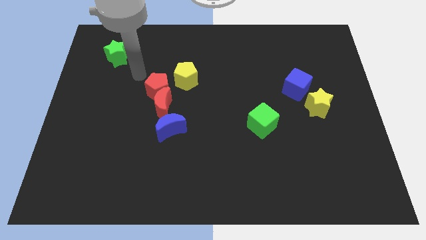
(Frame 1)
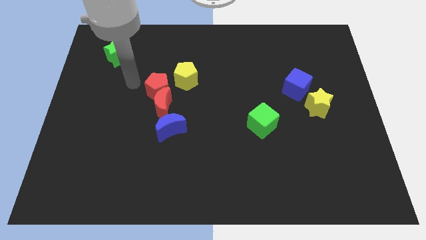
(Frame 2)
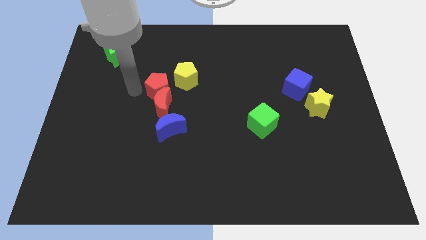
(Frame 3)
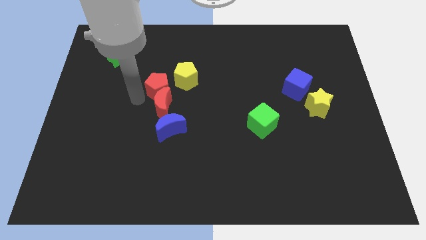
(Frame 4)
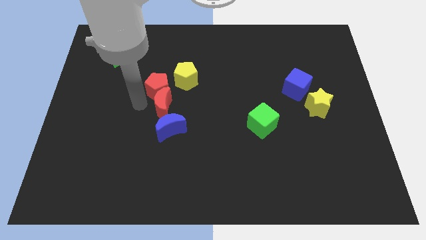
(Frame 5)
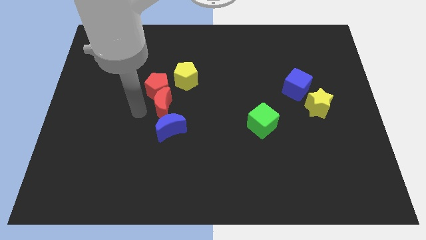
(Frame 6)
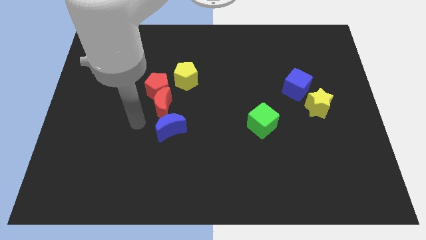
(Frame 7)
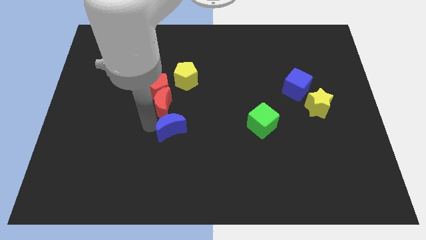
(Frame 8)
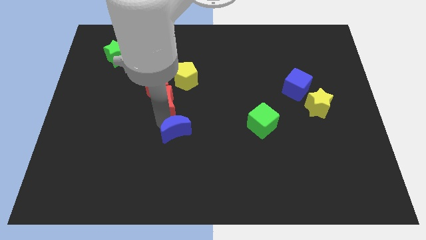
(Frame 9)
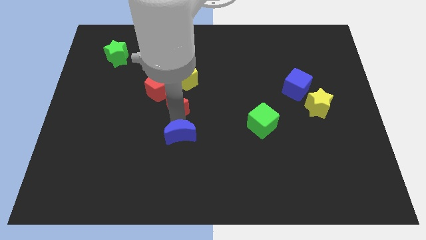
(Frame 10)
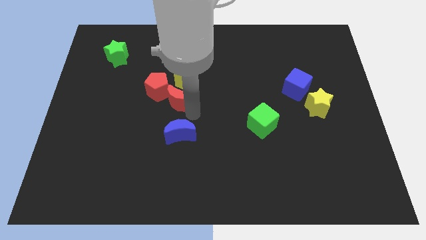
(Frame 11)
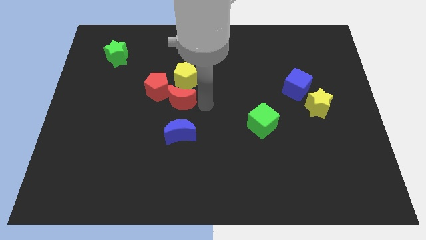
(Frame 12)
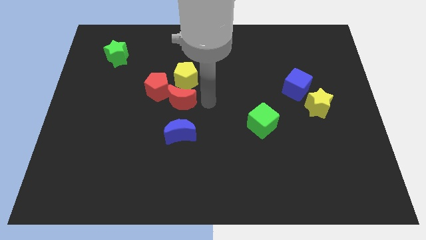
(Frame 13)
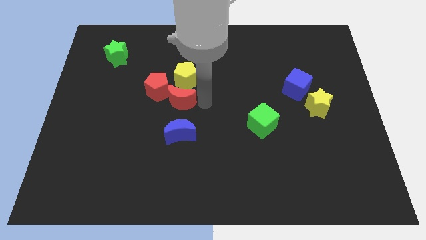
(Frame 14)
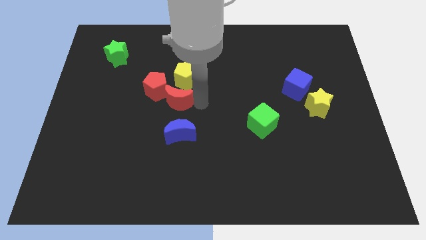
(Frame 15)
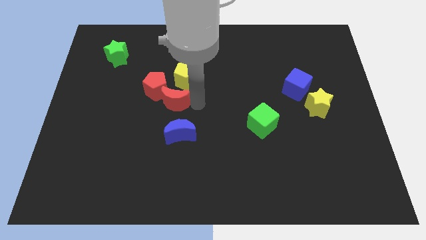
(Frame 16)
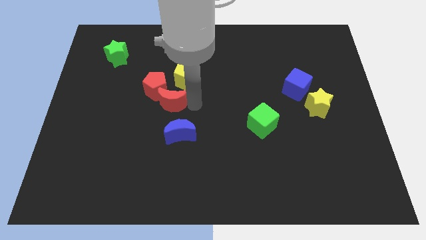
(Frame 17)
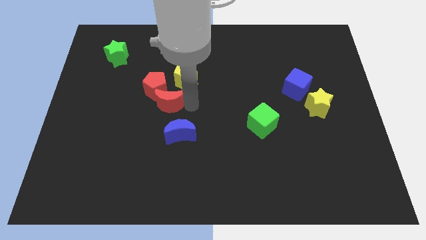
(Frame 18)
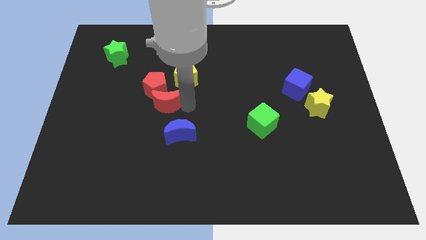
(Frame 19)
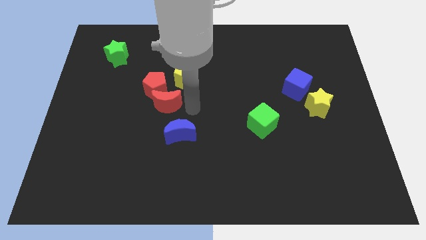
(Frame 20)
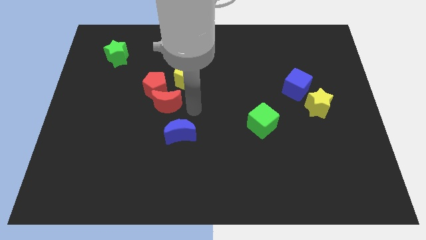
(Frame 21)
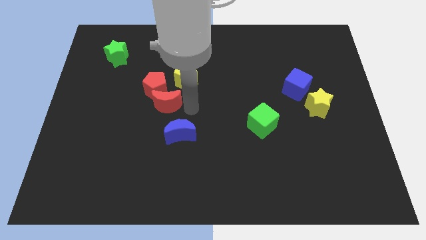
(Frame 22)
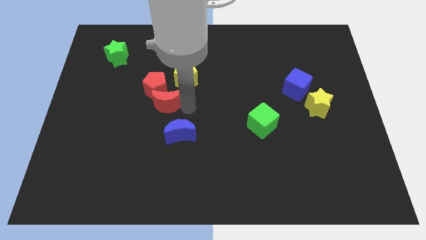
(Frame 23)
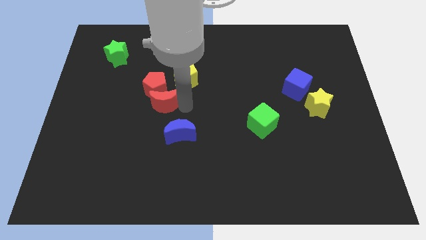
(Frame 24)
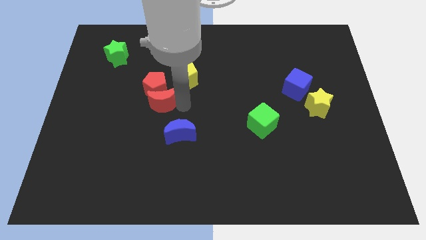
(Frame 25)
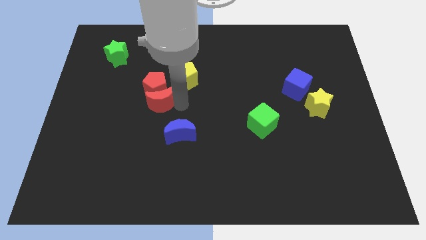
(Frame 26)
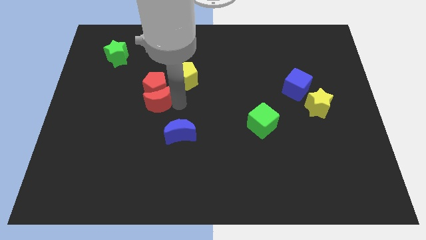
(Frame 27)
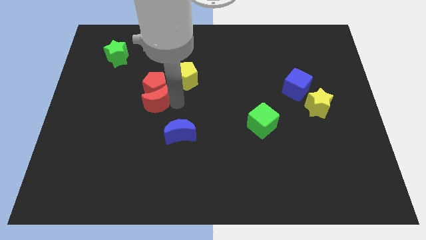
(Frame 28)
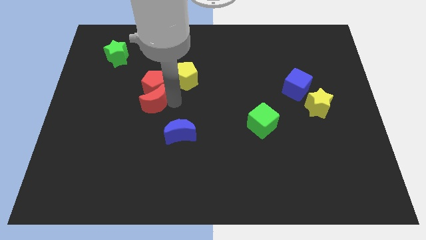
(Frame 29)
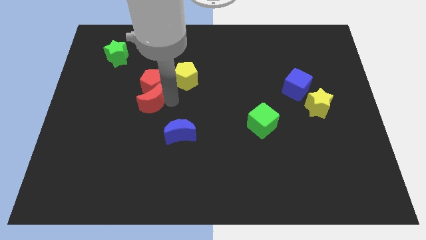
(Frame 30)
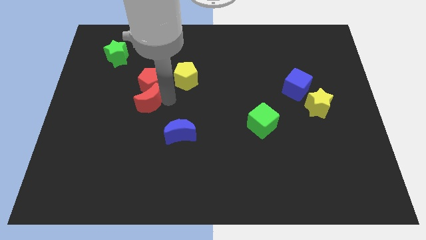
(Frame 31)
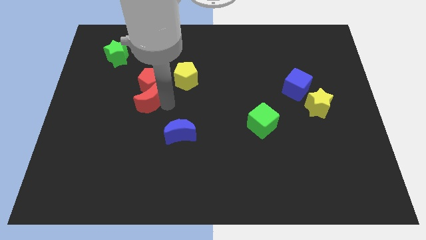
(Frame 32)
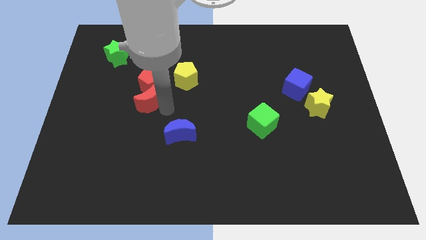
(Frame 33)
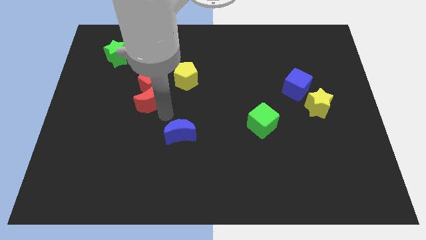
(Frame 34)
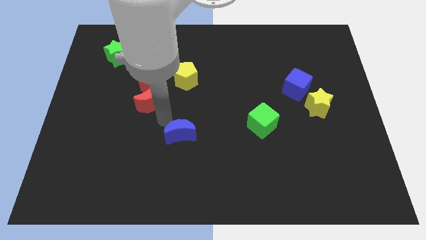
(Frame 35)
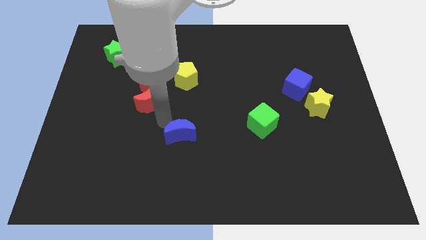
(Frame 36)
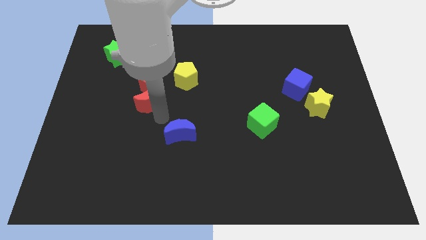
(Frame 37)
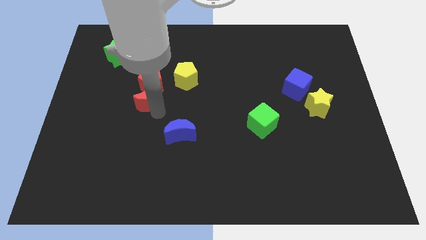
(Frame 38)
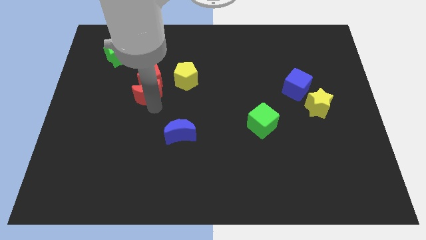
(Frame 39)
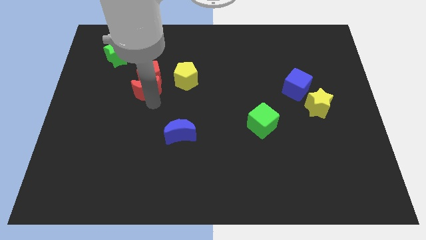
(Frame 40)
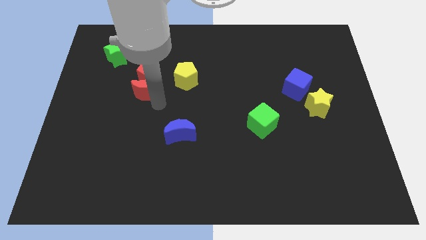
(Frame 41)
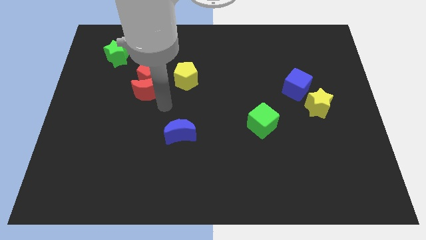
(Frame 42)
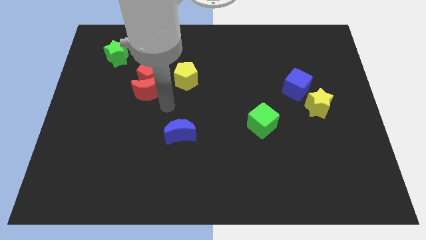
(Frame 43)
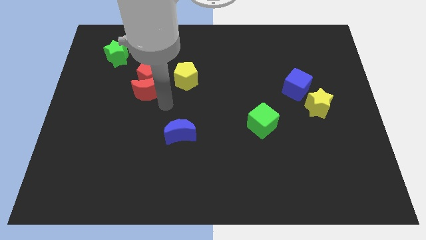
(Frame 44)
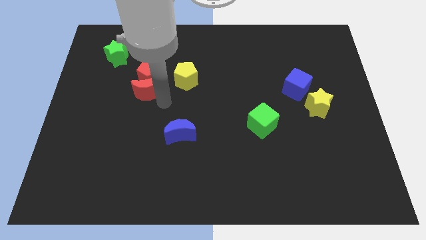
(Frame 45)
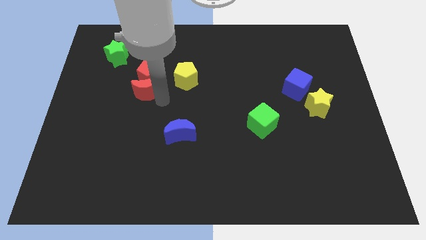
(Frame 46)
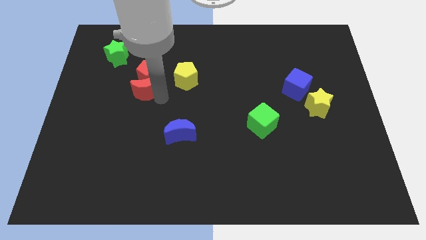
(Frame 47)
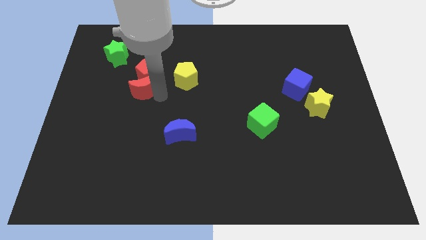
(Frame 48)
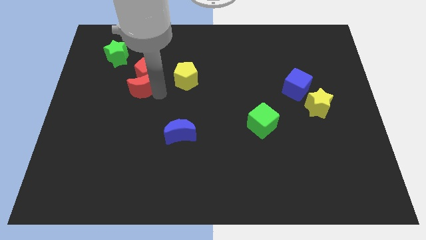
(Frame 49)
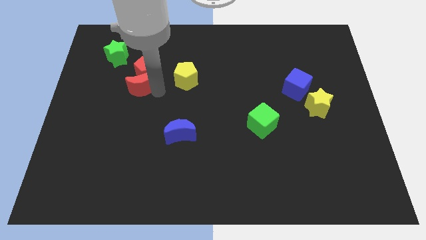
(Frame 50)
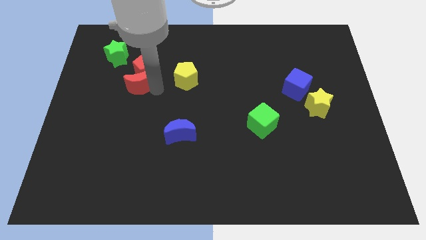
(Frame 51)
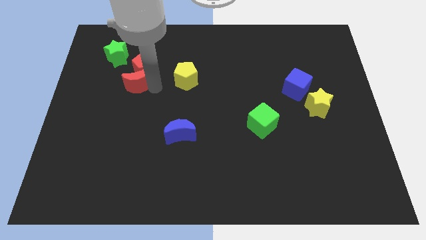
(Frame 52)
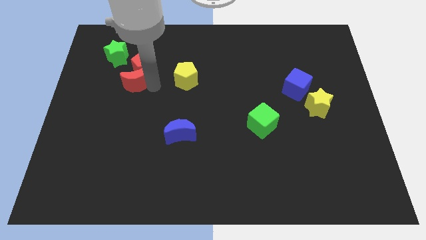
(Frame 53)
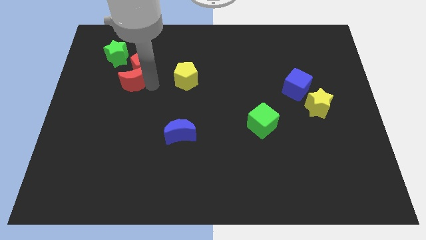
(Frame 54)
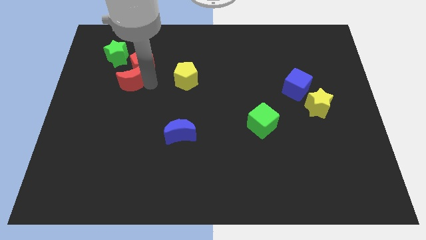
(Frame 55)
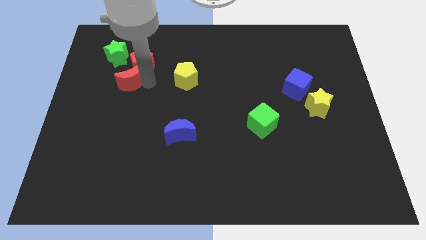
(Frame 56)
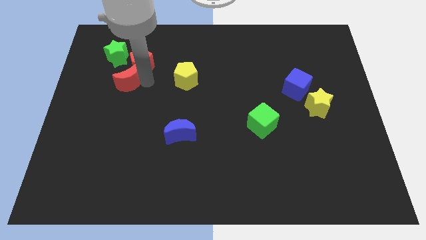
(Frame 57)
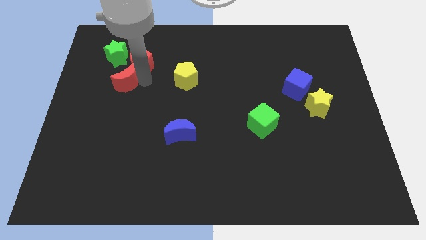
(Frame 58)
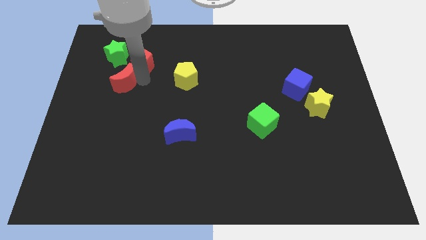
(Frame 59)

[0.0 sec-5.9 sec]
separate the red moon from the red pentagon and blue moon

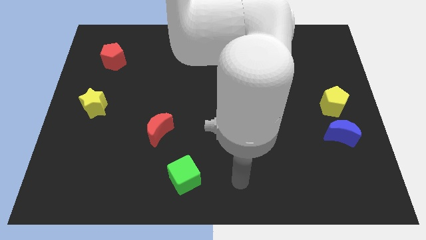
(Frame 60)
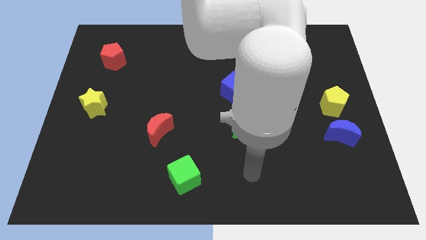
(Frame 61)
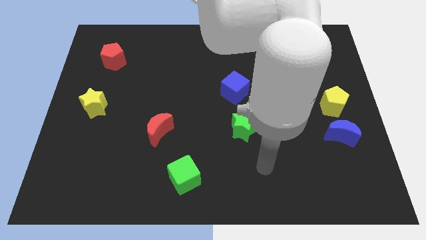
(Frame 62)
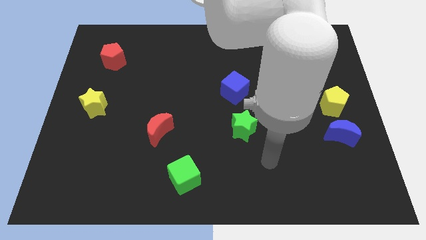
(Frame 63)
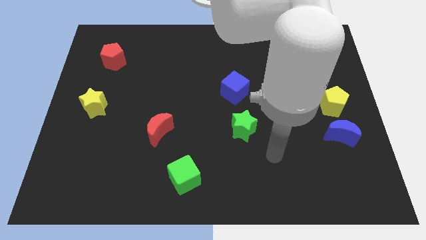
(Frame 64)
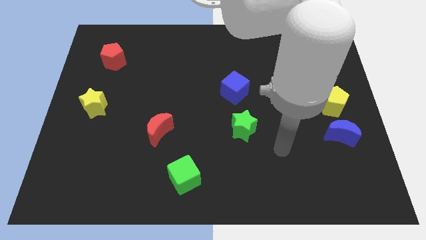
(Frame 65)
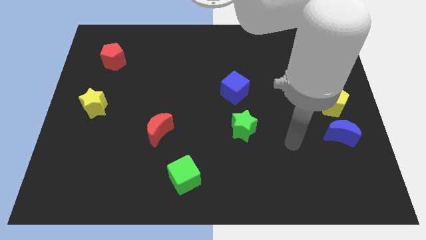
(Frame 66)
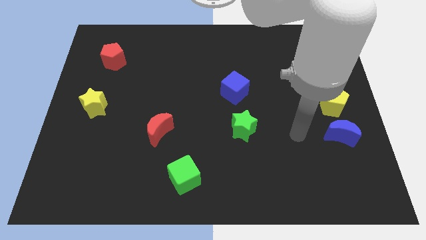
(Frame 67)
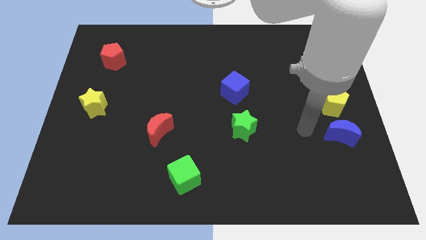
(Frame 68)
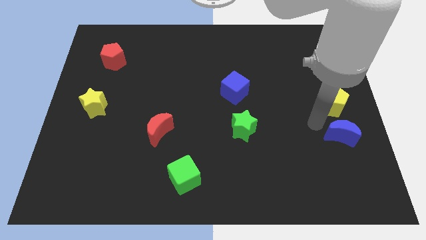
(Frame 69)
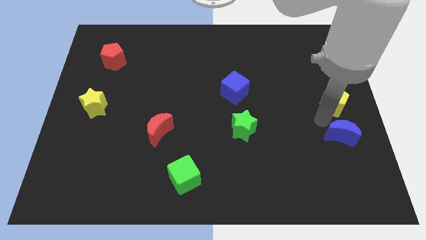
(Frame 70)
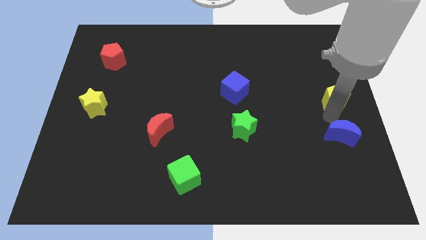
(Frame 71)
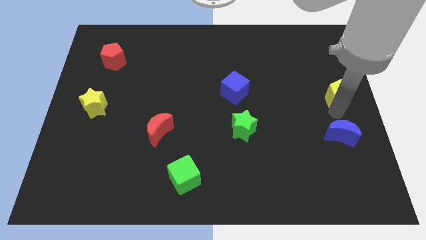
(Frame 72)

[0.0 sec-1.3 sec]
move the blue moon away from the yellow pentagon

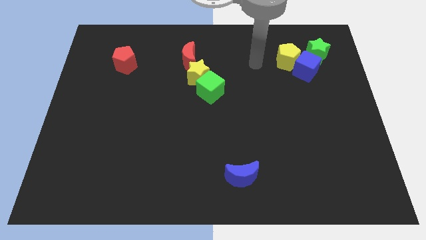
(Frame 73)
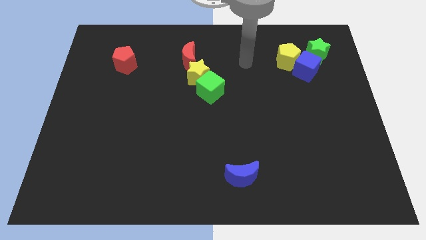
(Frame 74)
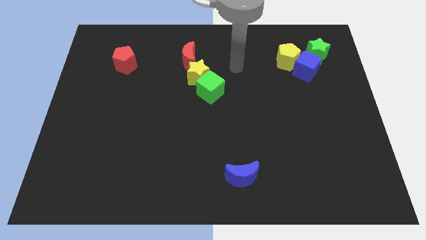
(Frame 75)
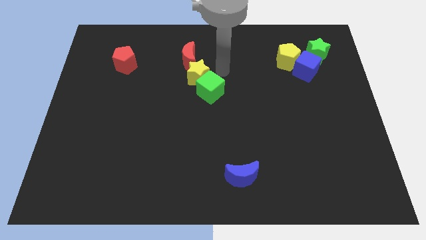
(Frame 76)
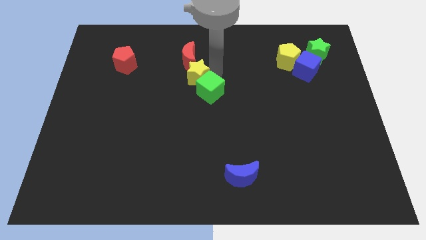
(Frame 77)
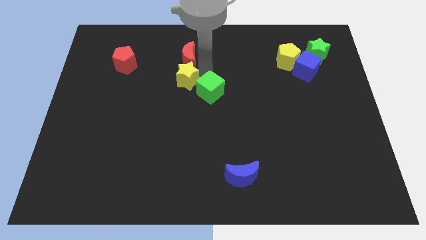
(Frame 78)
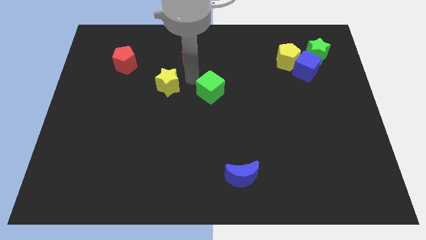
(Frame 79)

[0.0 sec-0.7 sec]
move the green cube away from the yellow star

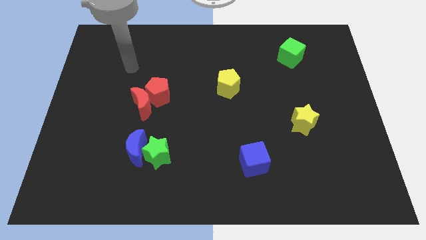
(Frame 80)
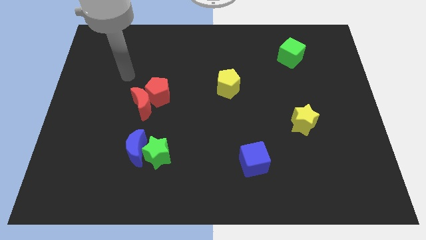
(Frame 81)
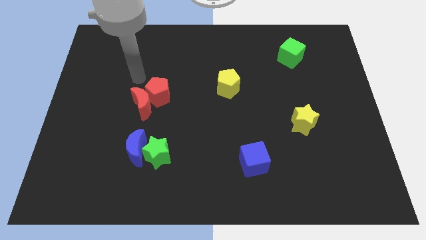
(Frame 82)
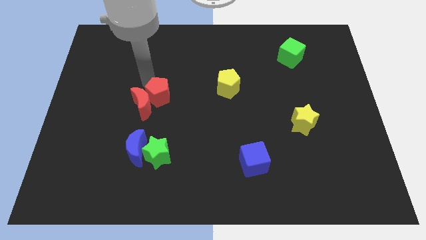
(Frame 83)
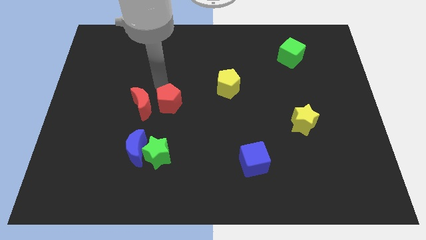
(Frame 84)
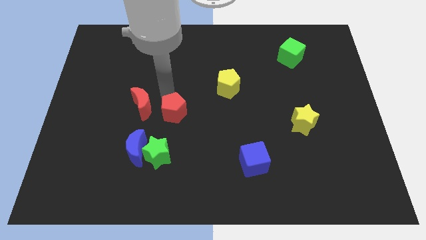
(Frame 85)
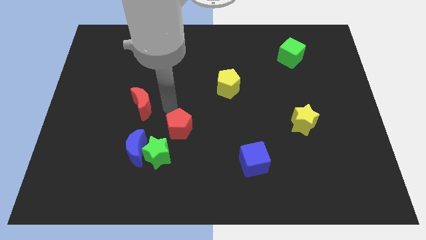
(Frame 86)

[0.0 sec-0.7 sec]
move the red moon away from the red pentagon

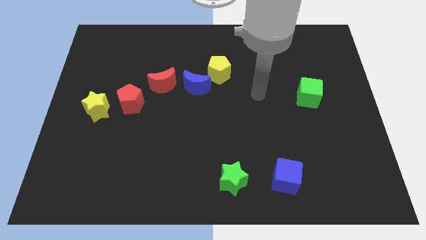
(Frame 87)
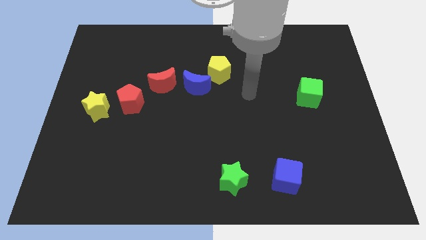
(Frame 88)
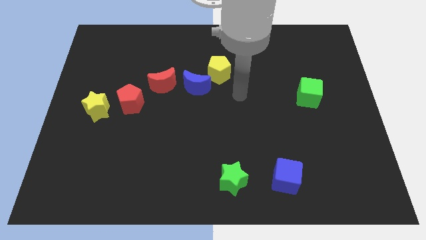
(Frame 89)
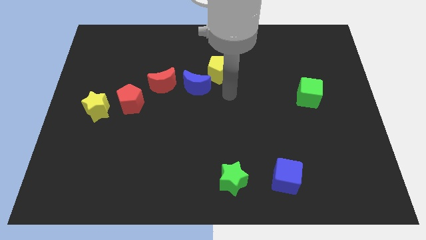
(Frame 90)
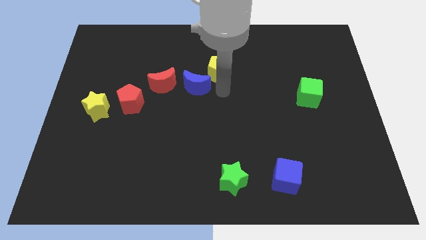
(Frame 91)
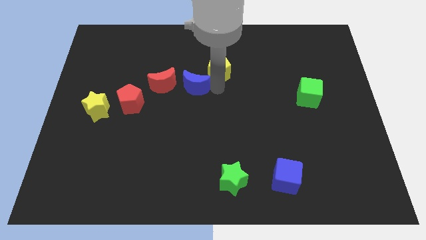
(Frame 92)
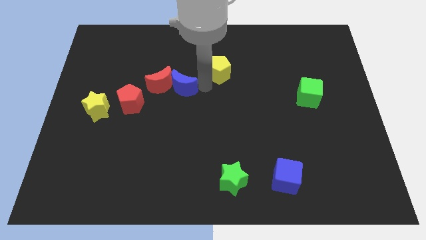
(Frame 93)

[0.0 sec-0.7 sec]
move the yellow pentagon away from the blue moon
